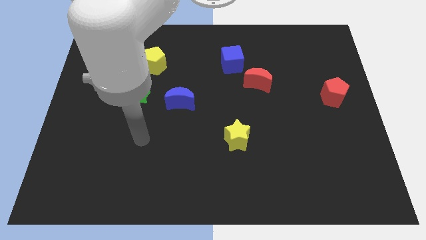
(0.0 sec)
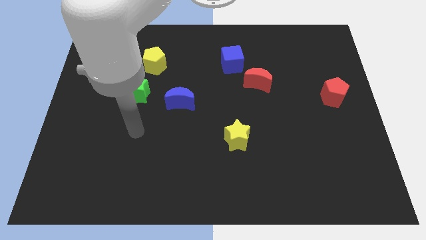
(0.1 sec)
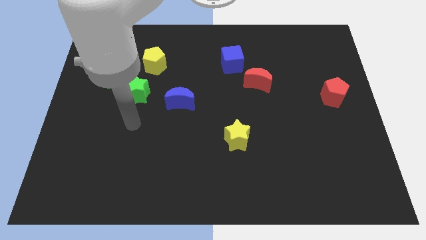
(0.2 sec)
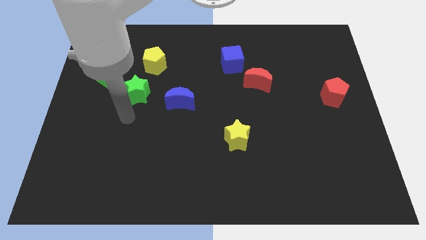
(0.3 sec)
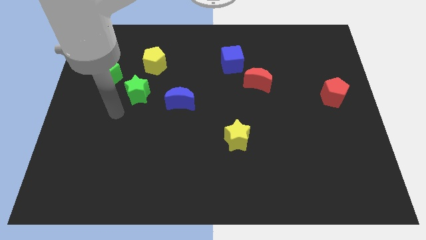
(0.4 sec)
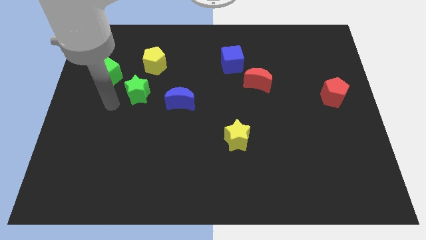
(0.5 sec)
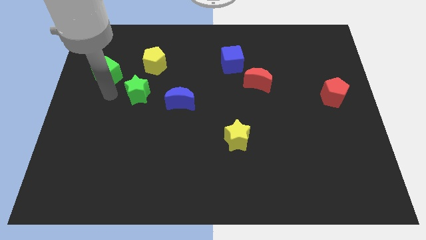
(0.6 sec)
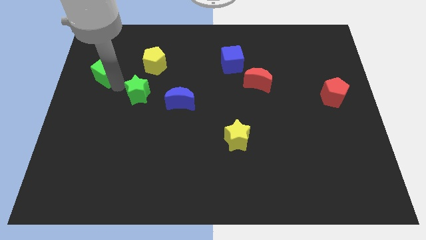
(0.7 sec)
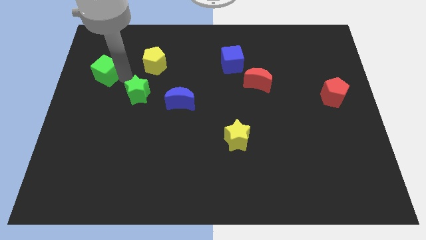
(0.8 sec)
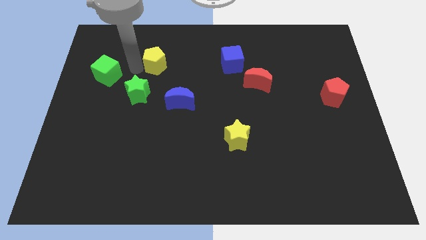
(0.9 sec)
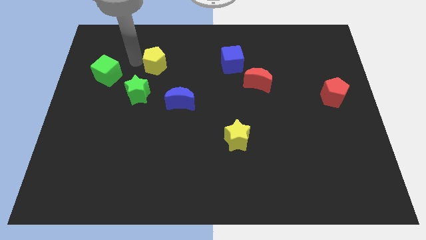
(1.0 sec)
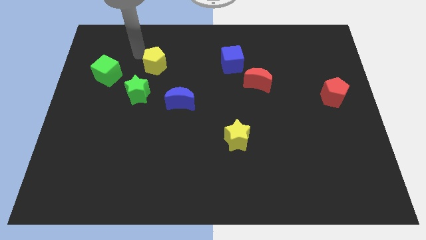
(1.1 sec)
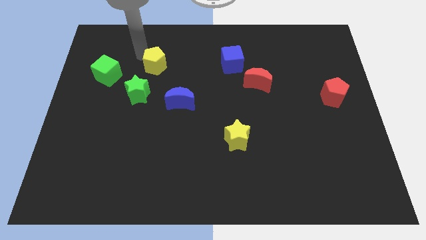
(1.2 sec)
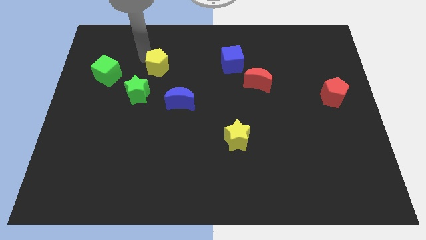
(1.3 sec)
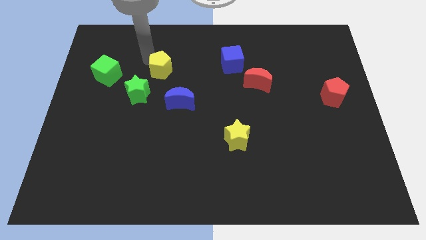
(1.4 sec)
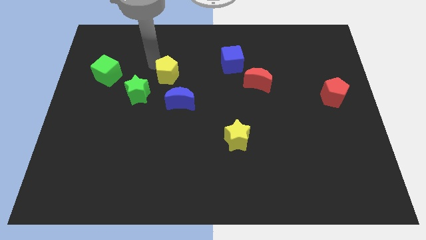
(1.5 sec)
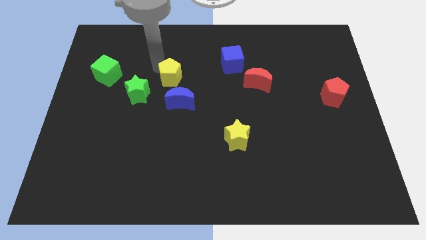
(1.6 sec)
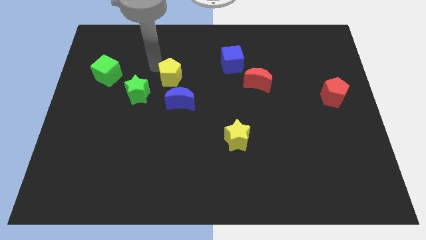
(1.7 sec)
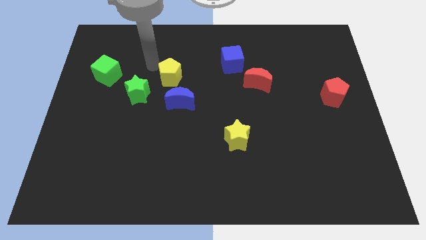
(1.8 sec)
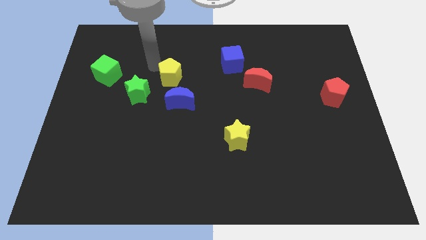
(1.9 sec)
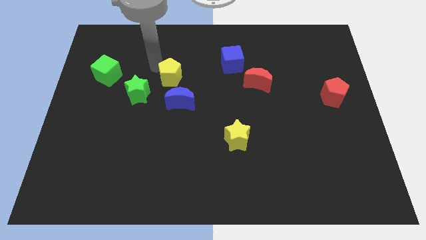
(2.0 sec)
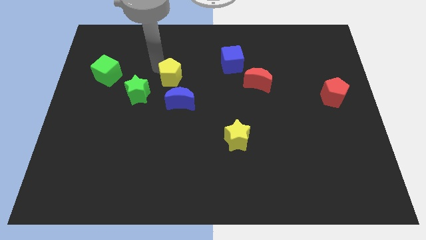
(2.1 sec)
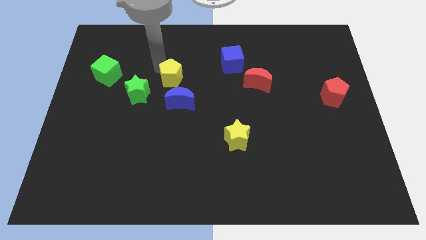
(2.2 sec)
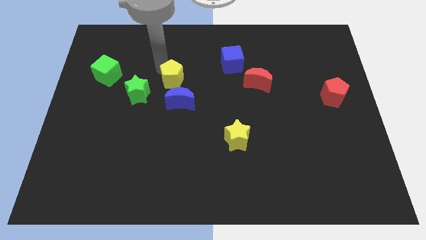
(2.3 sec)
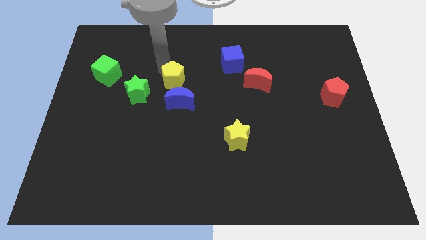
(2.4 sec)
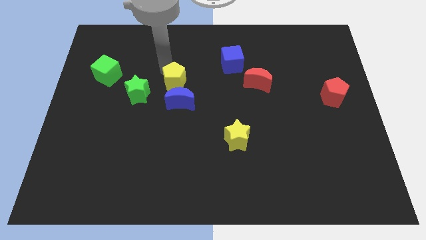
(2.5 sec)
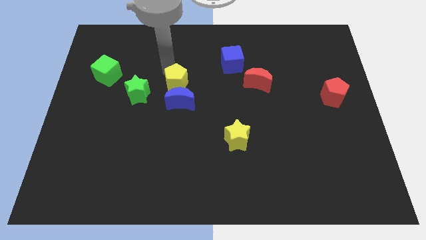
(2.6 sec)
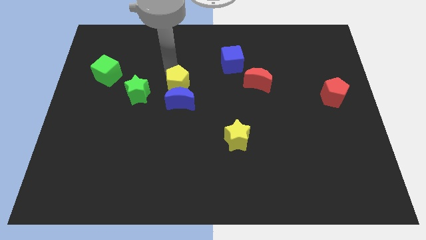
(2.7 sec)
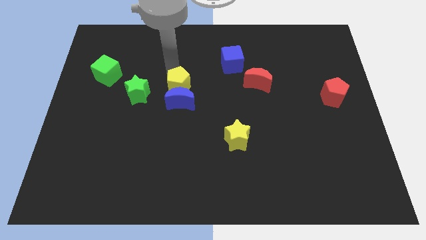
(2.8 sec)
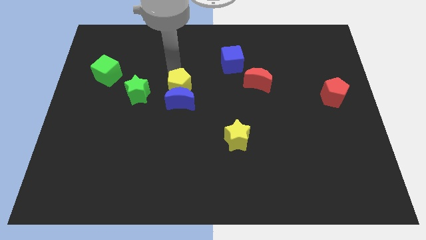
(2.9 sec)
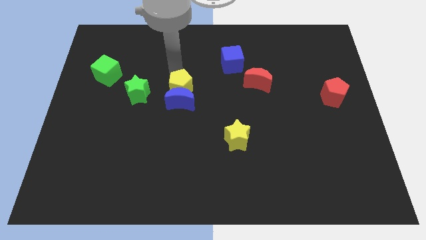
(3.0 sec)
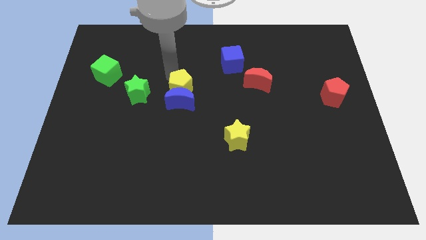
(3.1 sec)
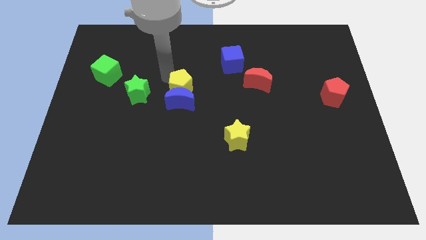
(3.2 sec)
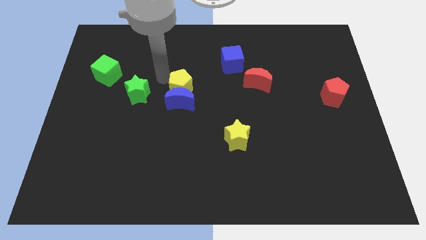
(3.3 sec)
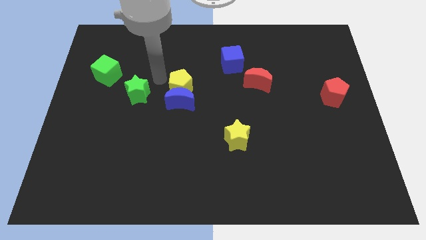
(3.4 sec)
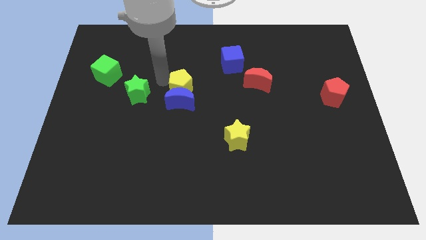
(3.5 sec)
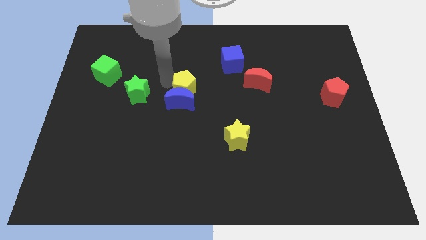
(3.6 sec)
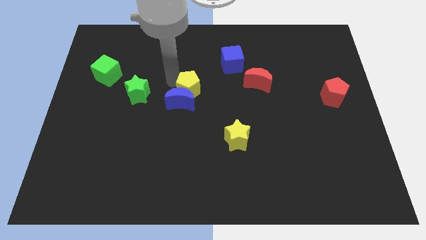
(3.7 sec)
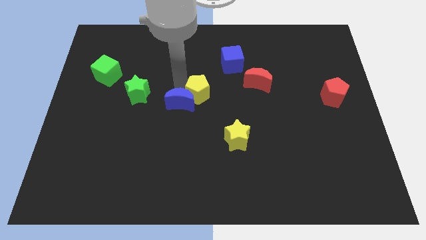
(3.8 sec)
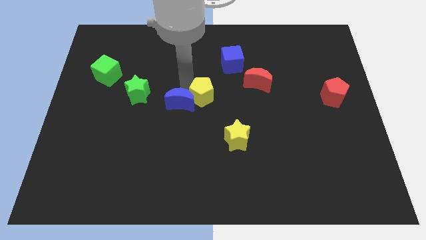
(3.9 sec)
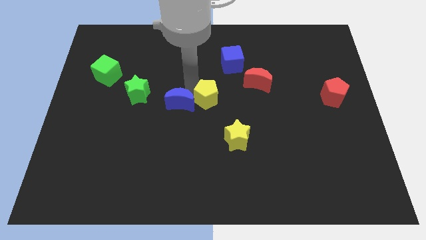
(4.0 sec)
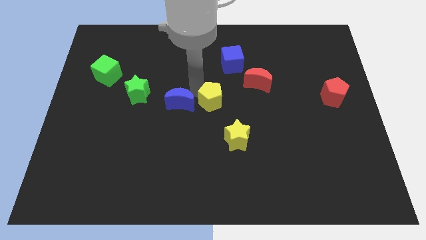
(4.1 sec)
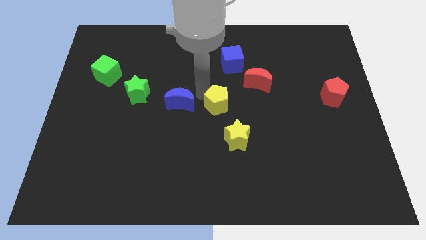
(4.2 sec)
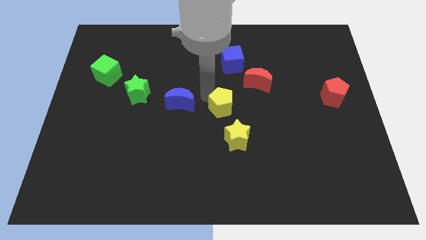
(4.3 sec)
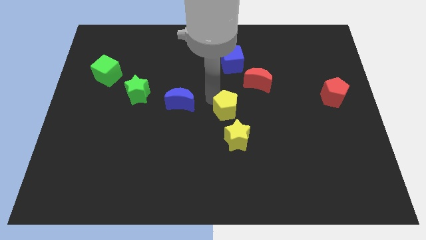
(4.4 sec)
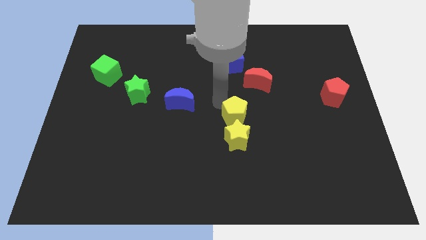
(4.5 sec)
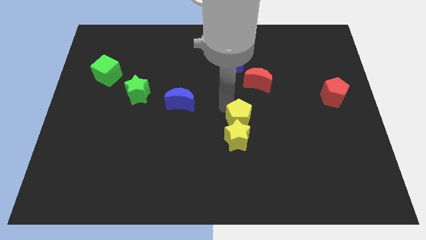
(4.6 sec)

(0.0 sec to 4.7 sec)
push the yellow pentagon towards the yellow star

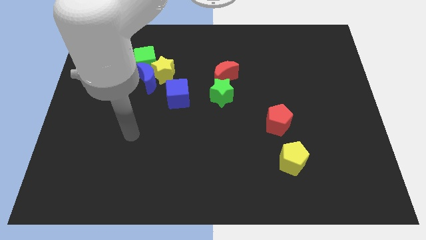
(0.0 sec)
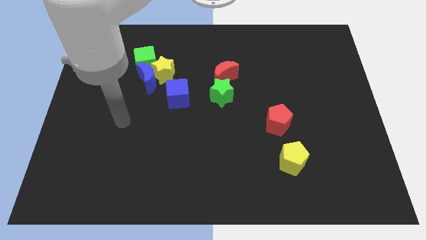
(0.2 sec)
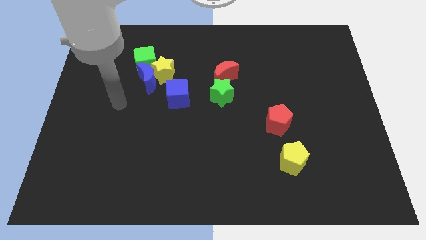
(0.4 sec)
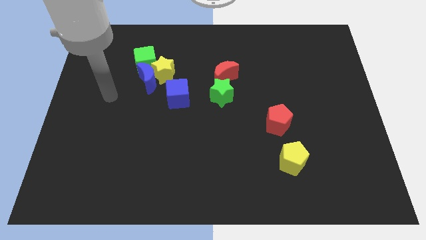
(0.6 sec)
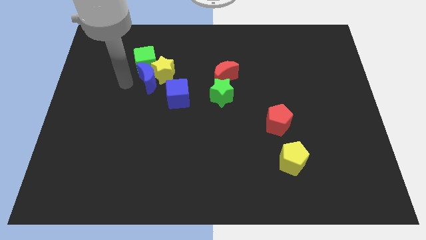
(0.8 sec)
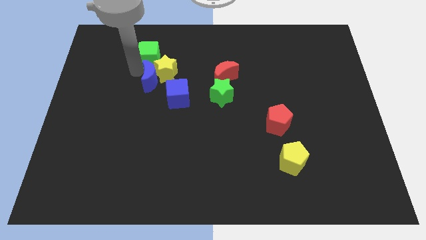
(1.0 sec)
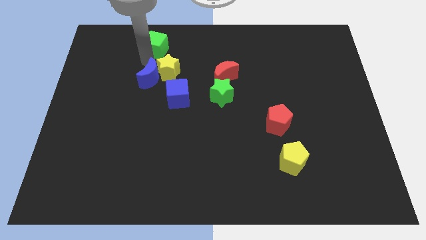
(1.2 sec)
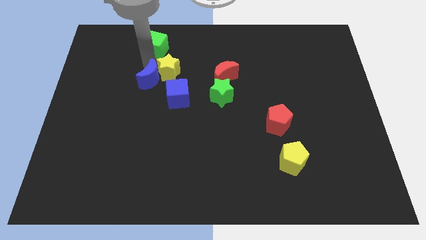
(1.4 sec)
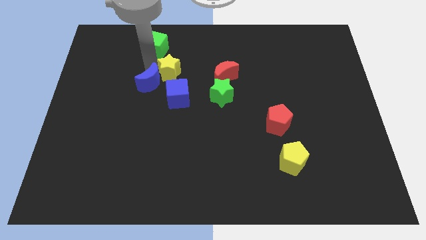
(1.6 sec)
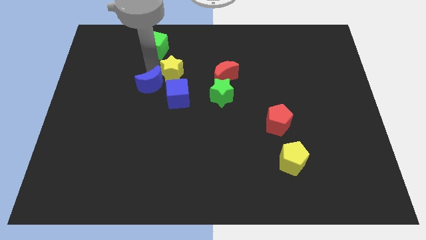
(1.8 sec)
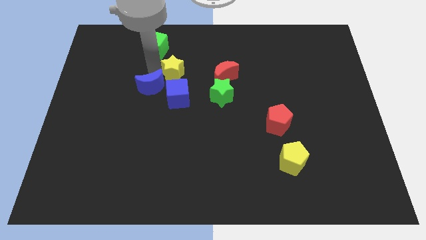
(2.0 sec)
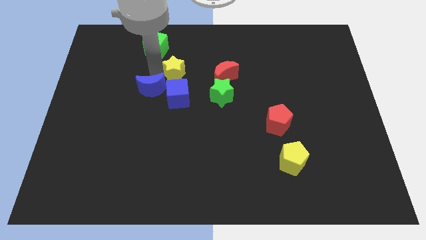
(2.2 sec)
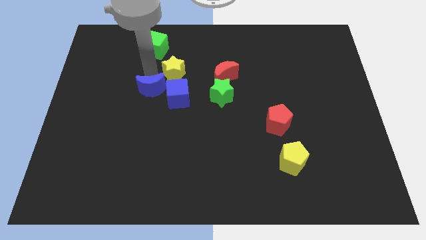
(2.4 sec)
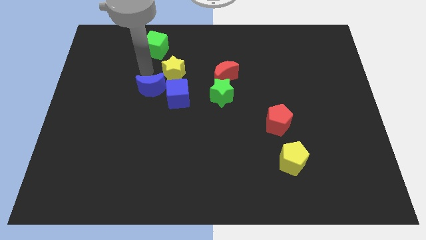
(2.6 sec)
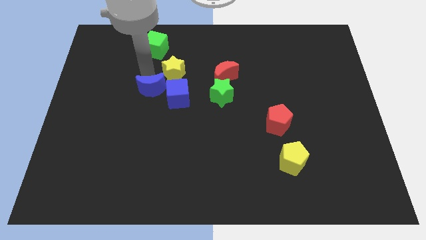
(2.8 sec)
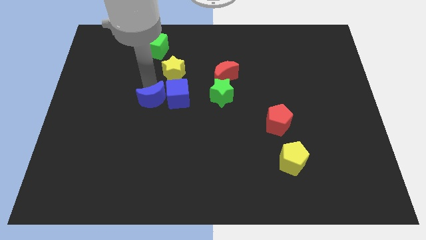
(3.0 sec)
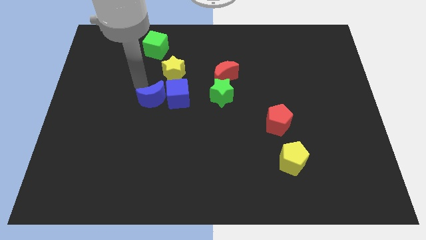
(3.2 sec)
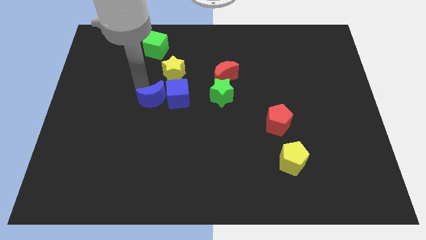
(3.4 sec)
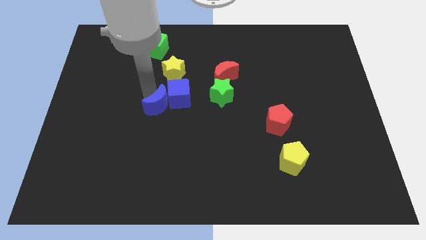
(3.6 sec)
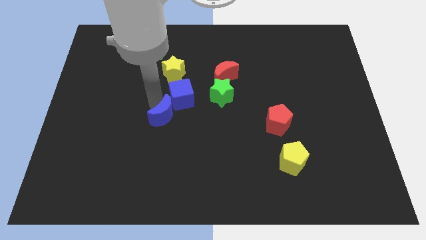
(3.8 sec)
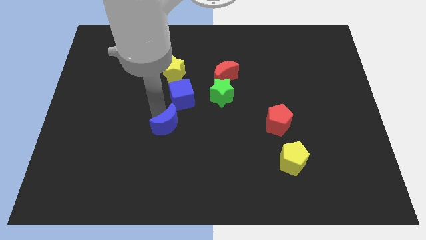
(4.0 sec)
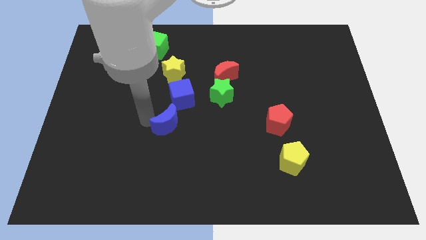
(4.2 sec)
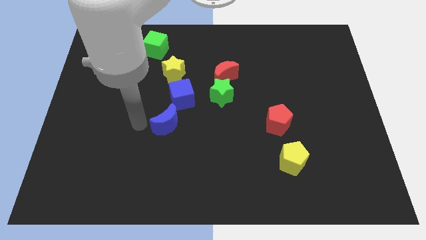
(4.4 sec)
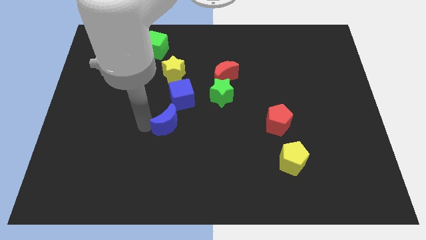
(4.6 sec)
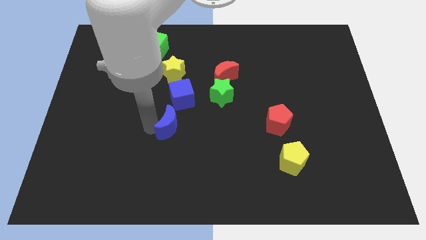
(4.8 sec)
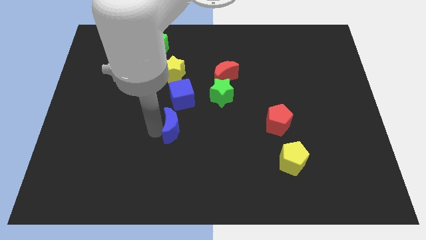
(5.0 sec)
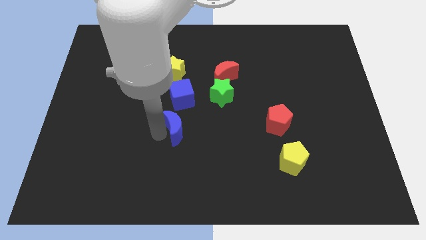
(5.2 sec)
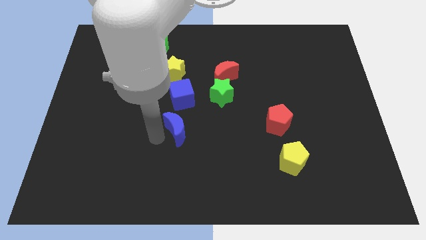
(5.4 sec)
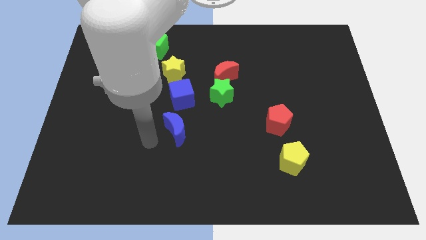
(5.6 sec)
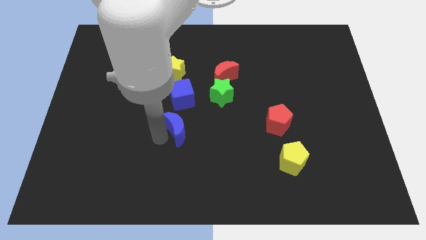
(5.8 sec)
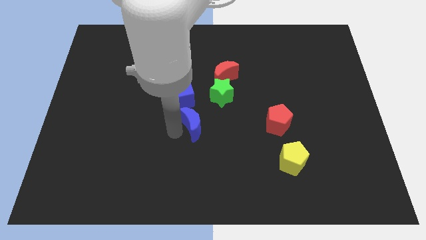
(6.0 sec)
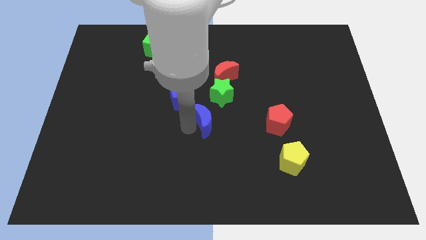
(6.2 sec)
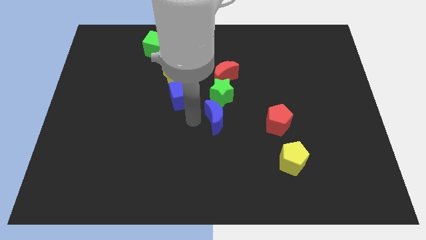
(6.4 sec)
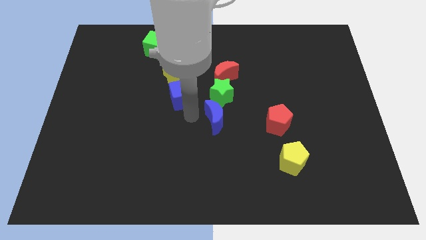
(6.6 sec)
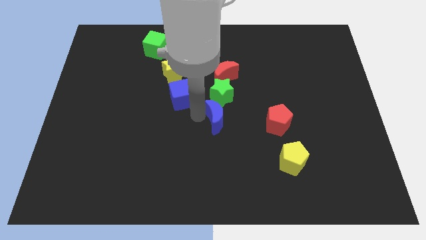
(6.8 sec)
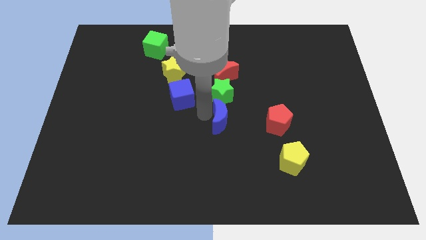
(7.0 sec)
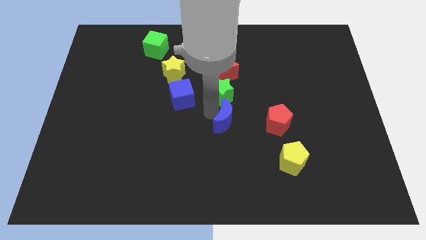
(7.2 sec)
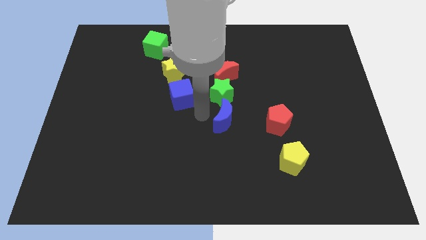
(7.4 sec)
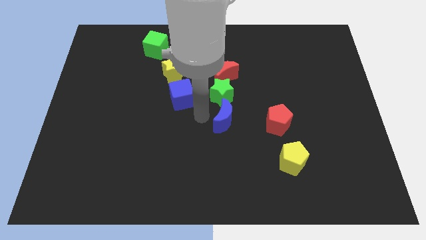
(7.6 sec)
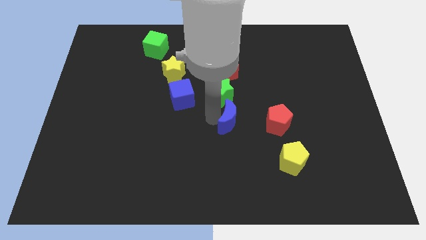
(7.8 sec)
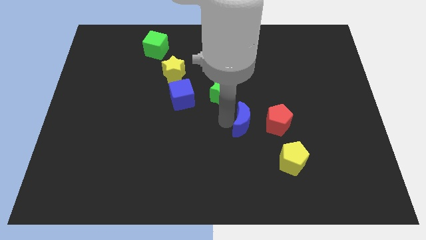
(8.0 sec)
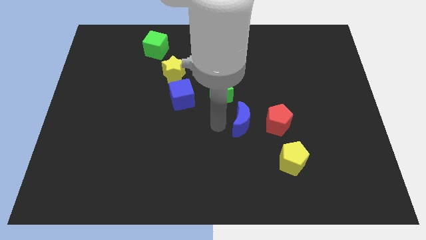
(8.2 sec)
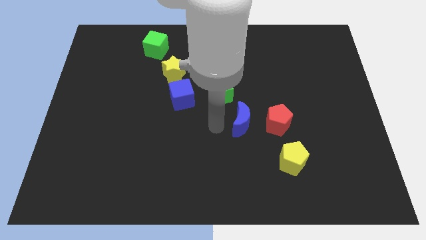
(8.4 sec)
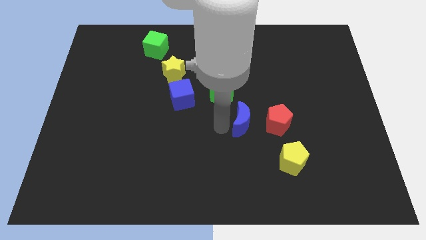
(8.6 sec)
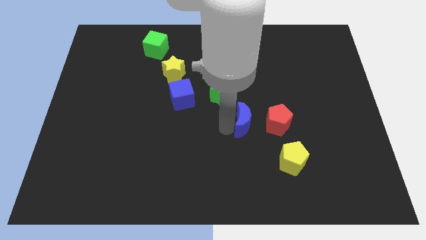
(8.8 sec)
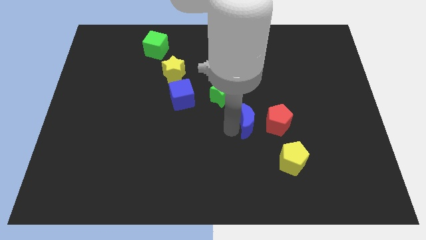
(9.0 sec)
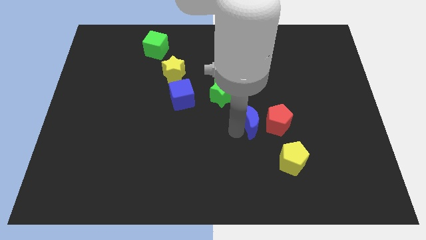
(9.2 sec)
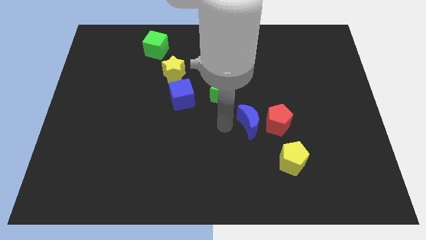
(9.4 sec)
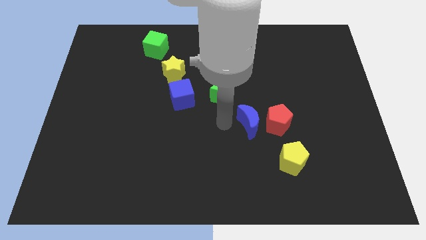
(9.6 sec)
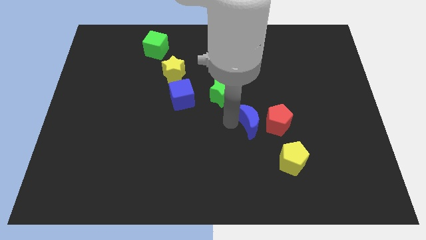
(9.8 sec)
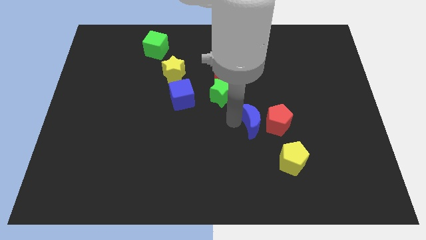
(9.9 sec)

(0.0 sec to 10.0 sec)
push the blue moon close to the red pentagon
